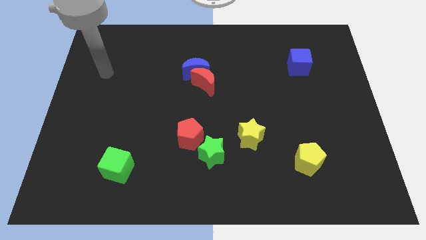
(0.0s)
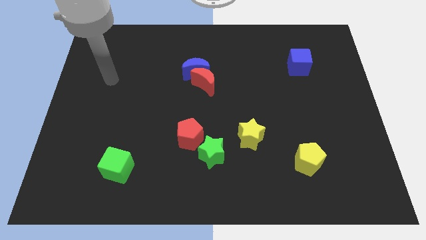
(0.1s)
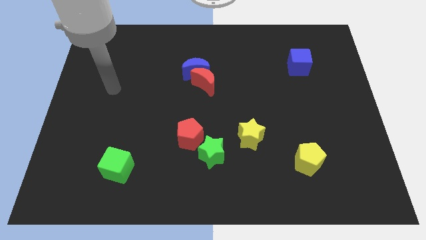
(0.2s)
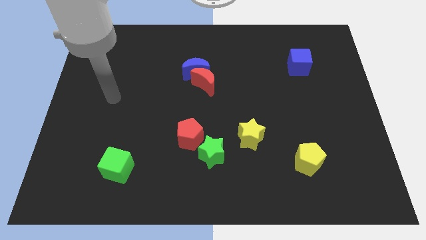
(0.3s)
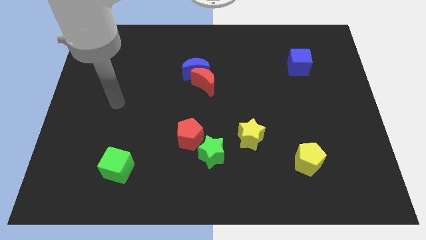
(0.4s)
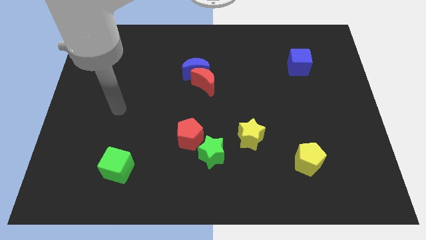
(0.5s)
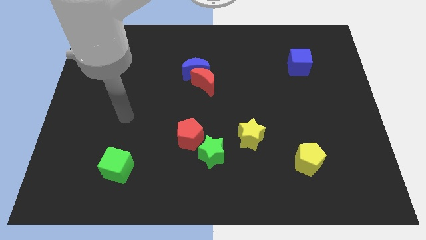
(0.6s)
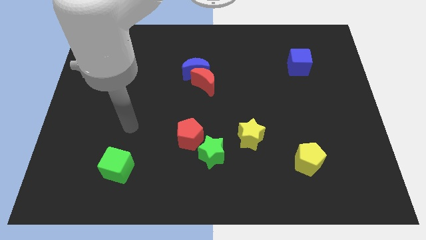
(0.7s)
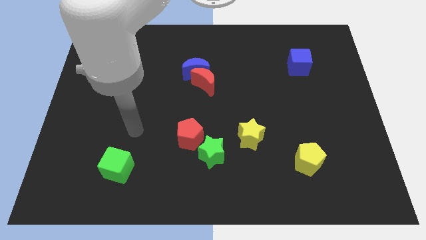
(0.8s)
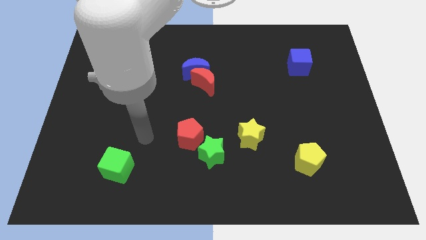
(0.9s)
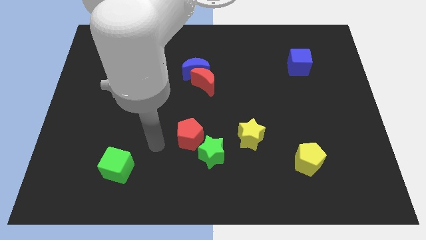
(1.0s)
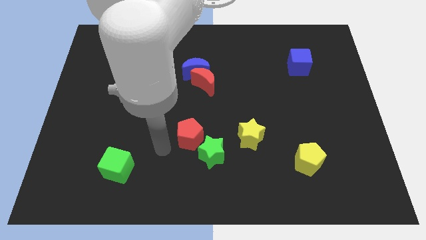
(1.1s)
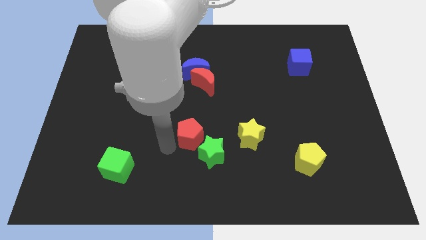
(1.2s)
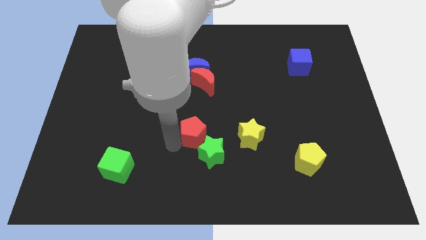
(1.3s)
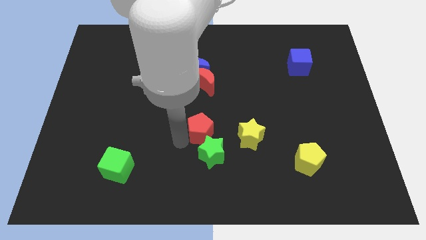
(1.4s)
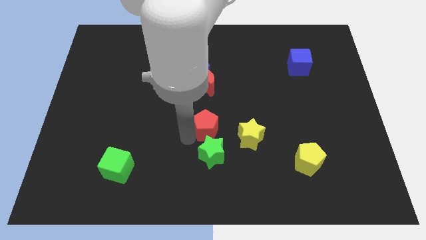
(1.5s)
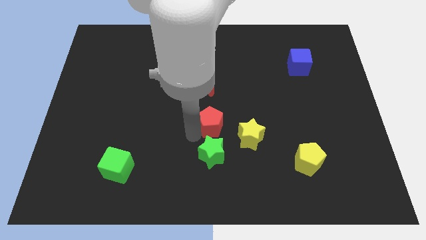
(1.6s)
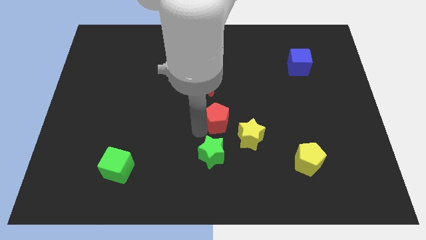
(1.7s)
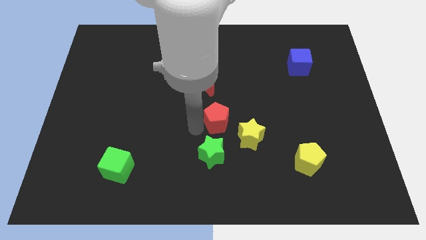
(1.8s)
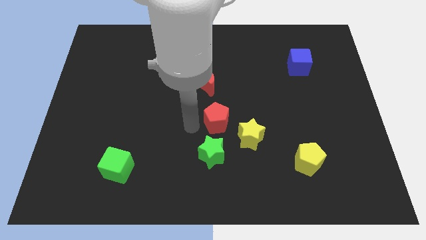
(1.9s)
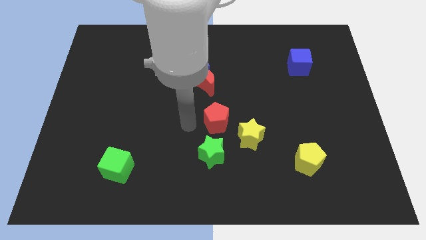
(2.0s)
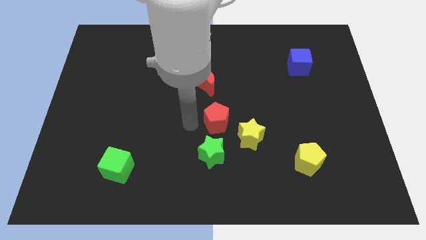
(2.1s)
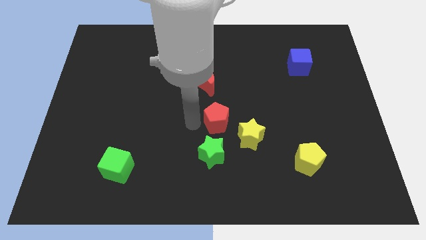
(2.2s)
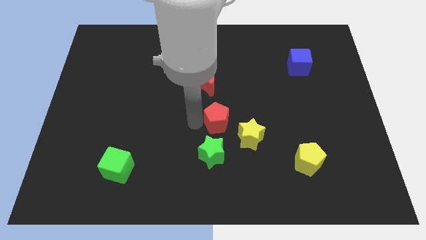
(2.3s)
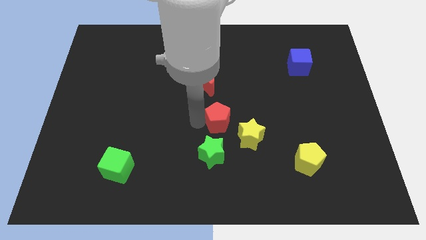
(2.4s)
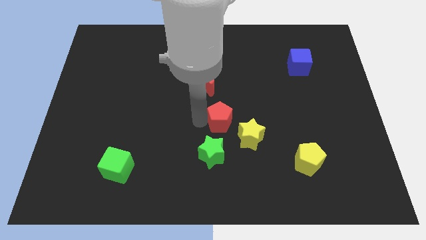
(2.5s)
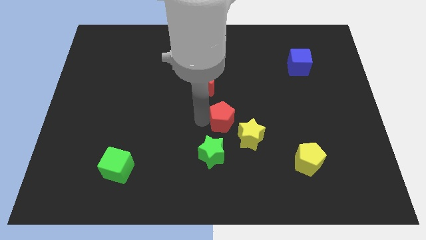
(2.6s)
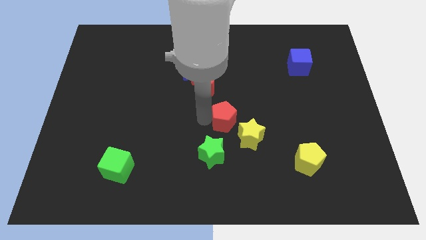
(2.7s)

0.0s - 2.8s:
slightly push the red pentagon to the right

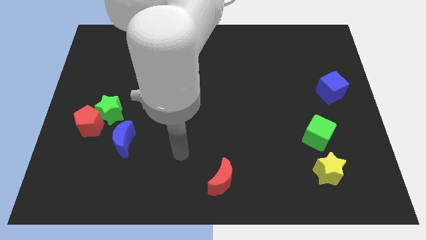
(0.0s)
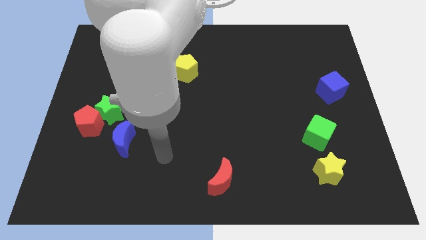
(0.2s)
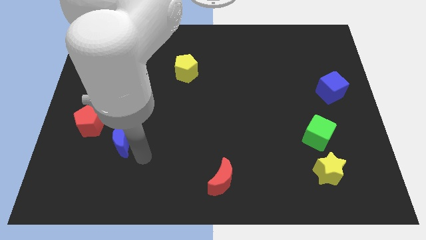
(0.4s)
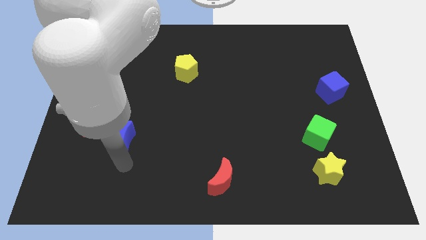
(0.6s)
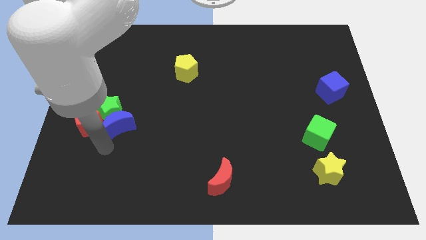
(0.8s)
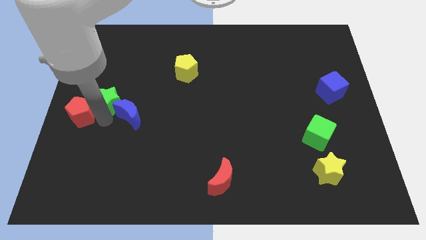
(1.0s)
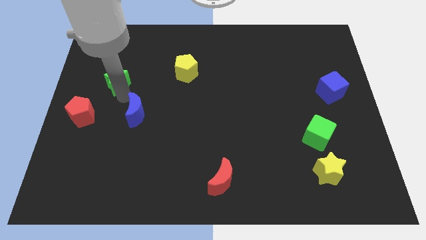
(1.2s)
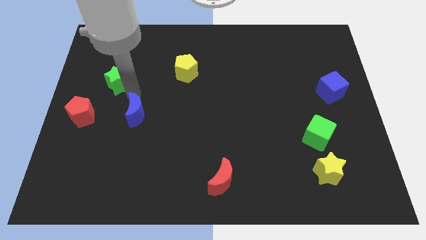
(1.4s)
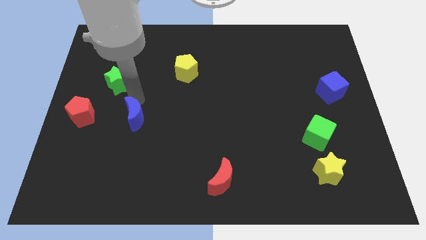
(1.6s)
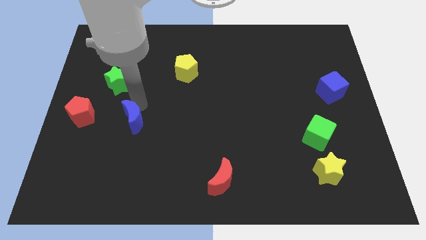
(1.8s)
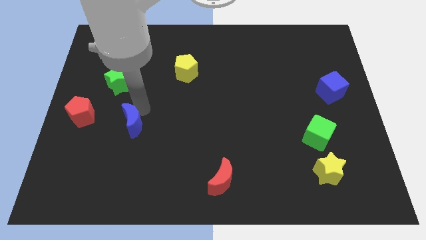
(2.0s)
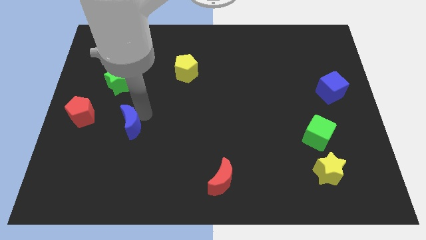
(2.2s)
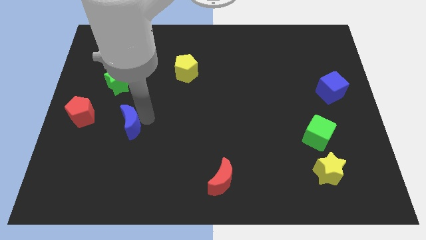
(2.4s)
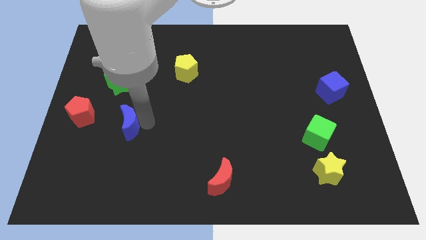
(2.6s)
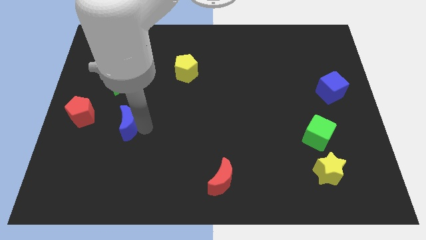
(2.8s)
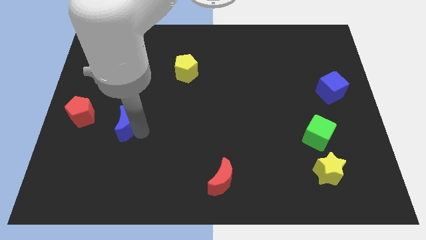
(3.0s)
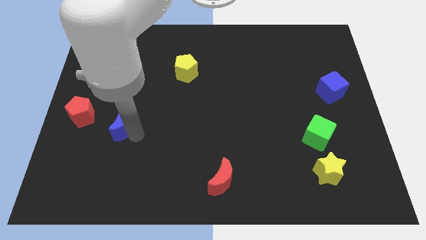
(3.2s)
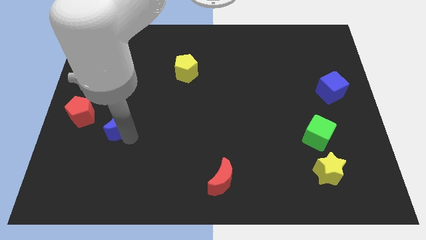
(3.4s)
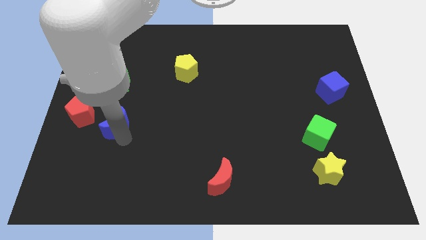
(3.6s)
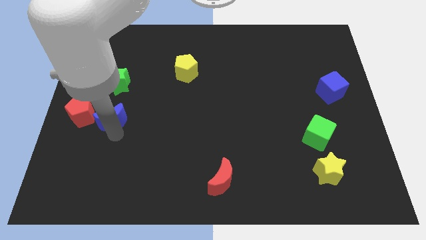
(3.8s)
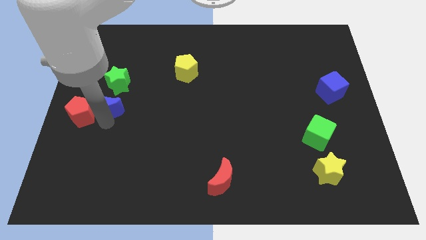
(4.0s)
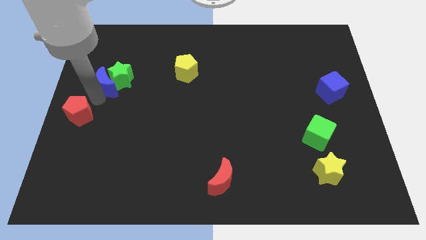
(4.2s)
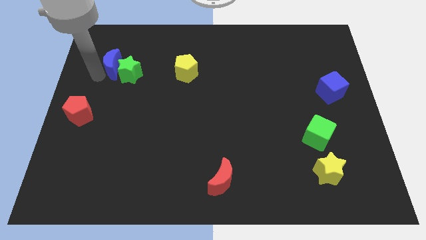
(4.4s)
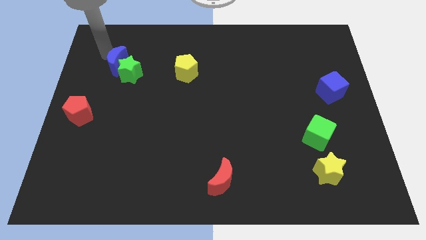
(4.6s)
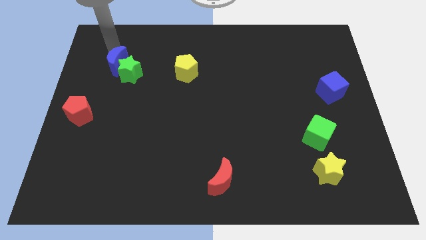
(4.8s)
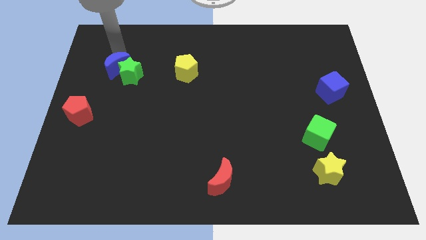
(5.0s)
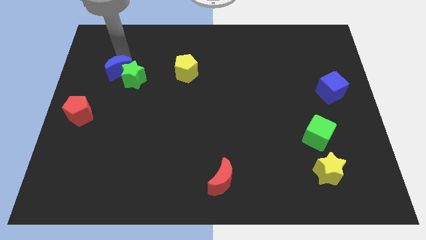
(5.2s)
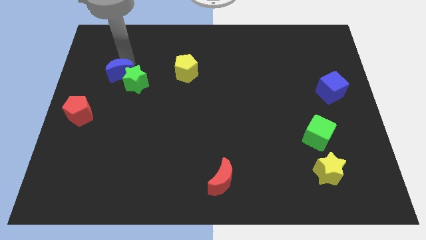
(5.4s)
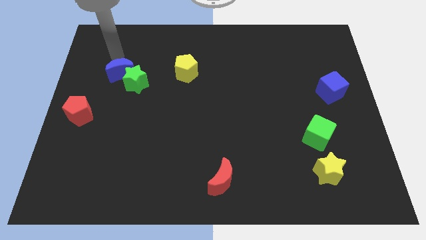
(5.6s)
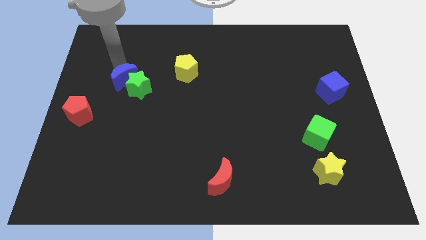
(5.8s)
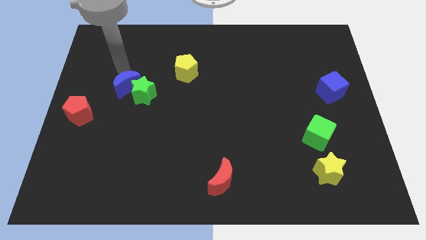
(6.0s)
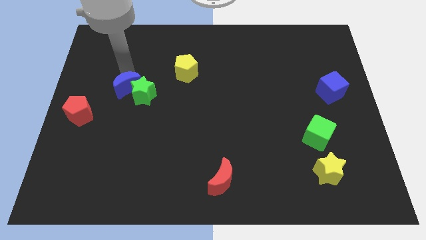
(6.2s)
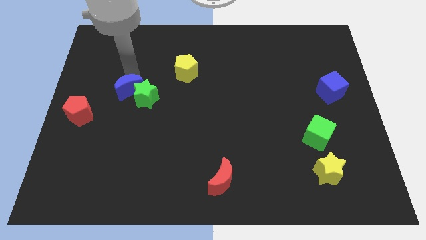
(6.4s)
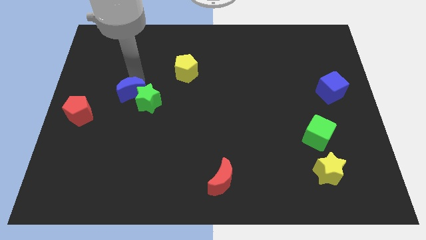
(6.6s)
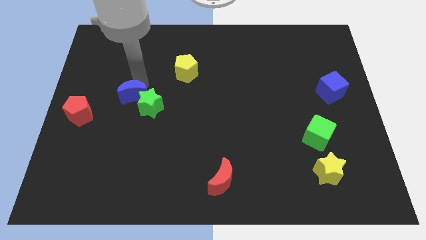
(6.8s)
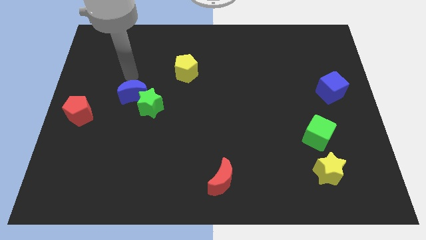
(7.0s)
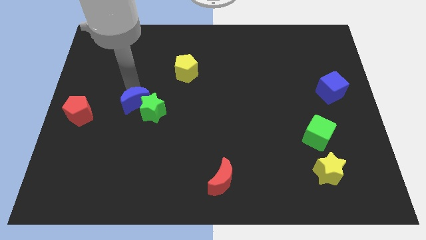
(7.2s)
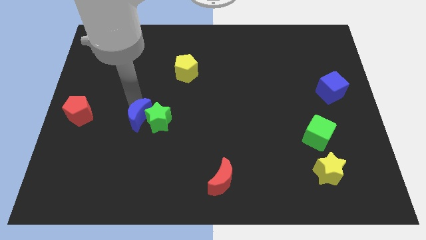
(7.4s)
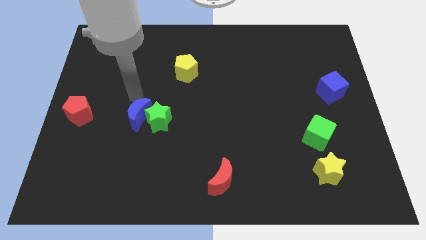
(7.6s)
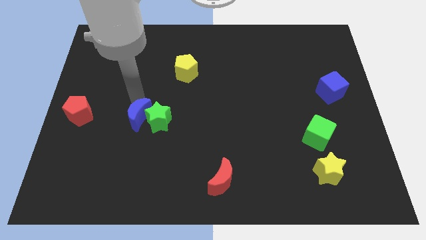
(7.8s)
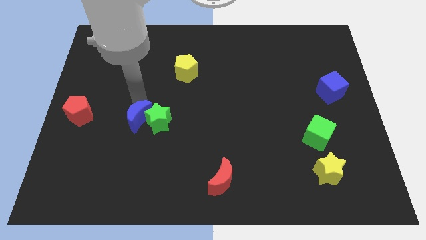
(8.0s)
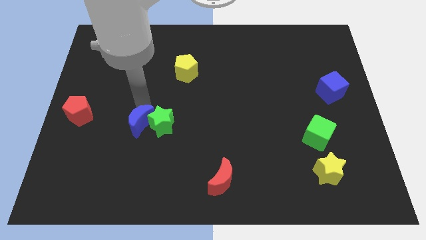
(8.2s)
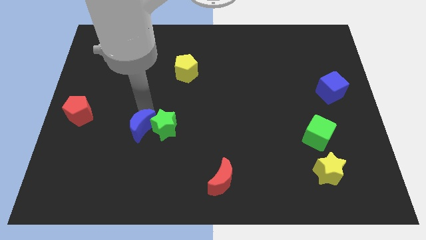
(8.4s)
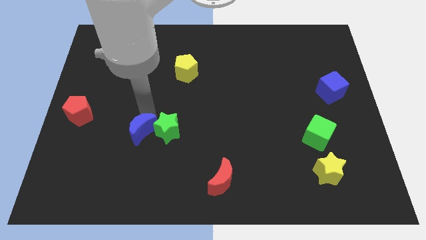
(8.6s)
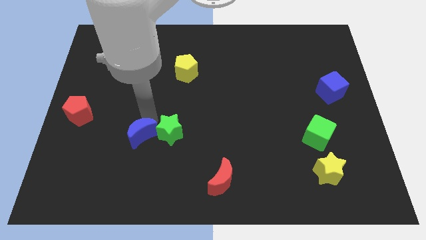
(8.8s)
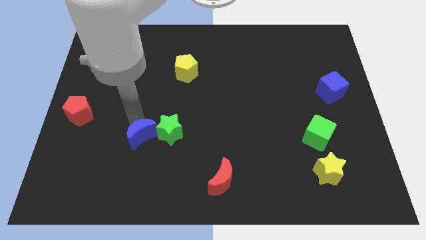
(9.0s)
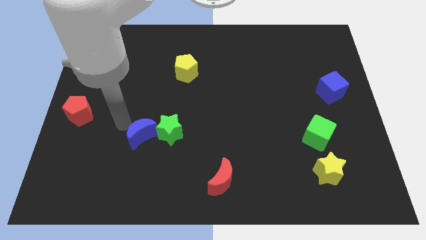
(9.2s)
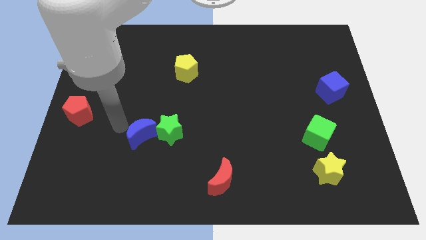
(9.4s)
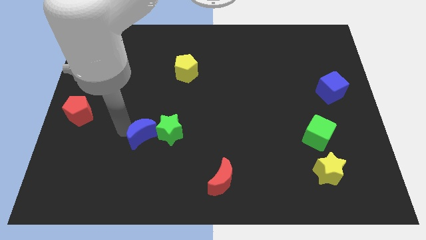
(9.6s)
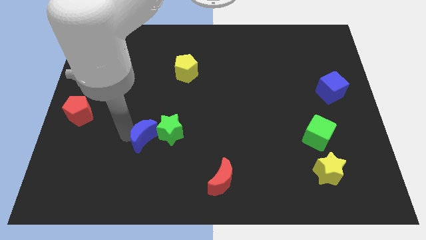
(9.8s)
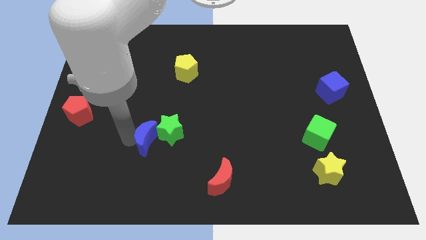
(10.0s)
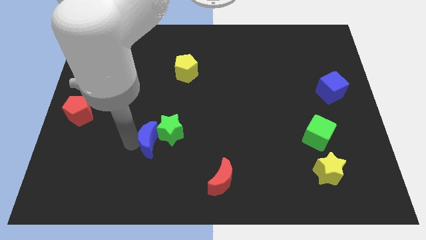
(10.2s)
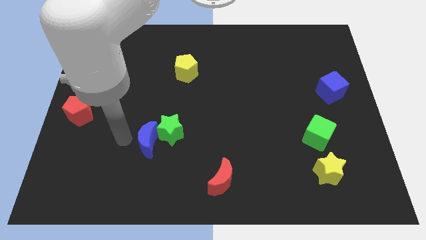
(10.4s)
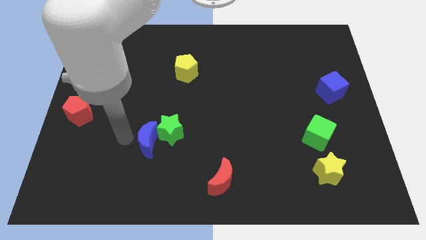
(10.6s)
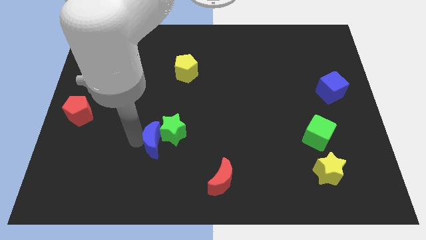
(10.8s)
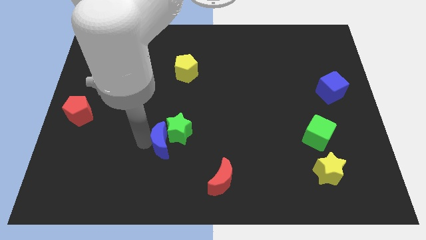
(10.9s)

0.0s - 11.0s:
push the blue moon to the right somewhat
